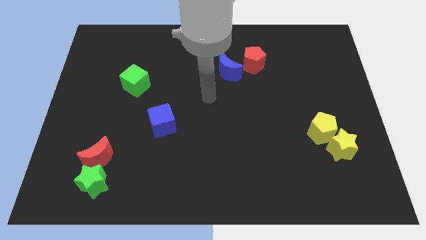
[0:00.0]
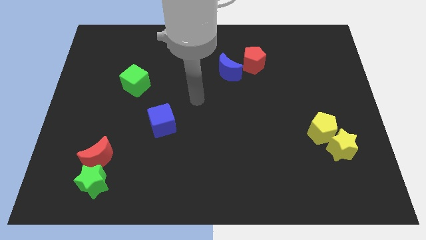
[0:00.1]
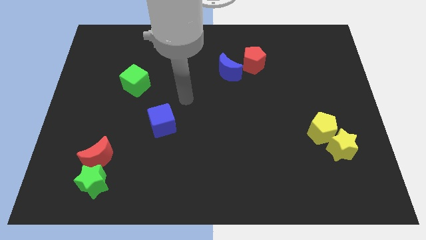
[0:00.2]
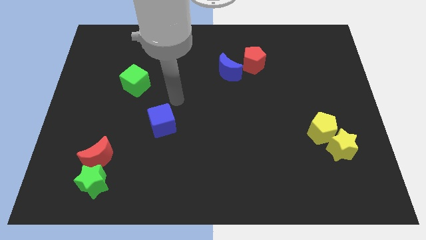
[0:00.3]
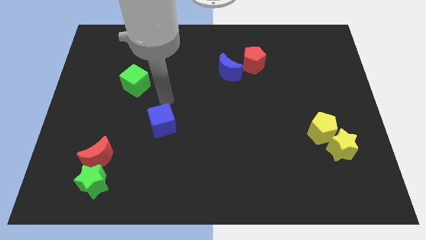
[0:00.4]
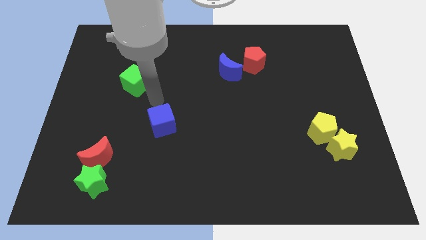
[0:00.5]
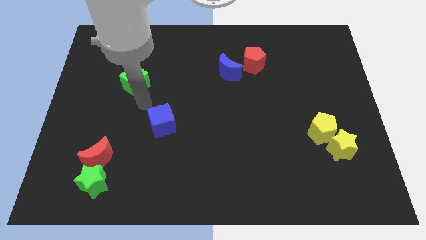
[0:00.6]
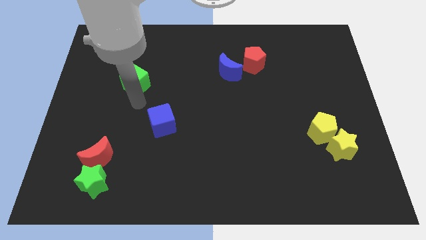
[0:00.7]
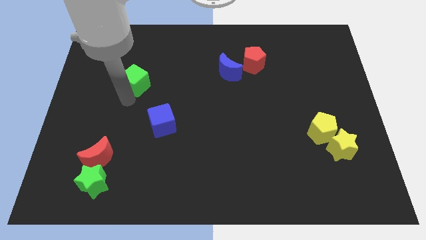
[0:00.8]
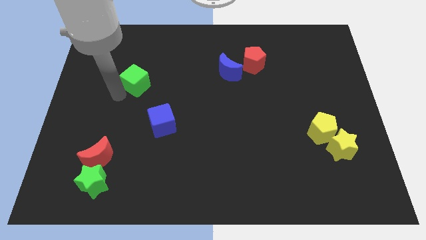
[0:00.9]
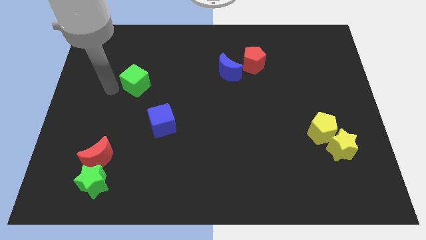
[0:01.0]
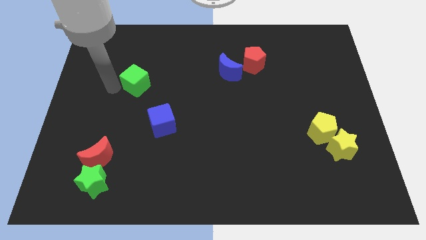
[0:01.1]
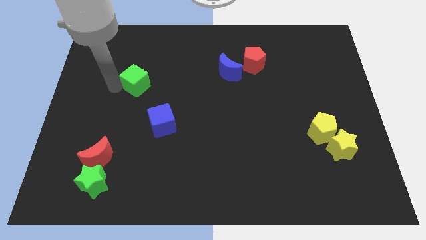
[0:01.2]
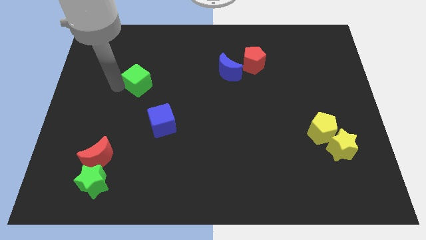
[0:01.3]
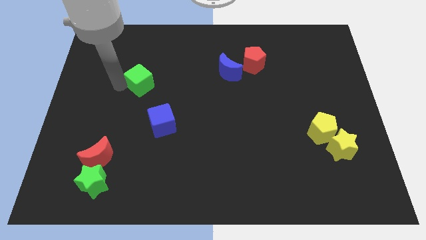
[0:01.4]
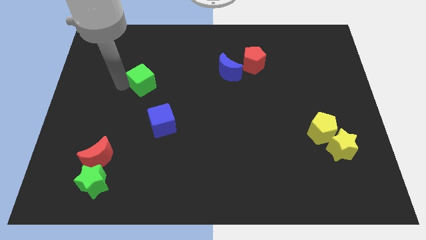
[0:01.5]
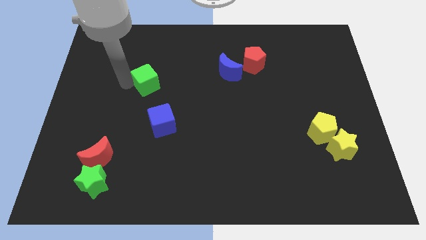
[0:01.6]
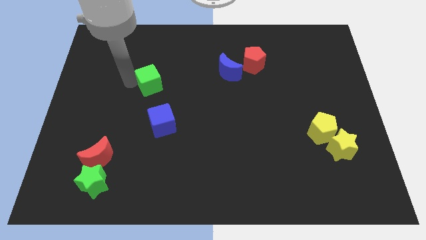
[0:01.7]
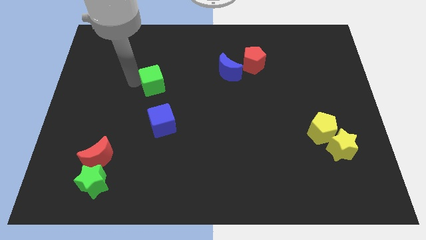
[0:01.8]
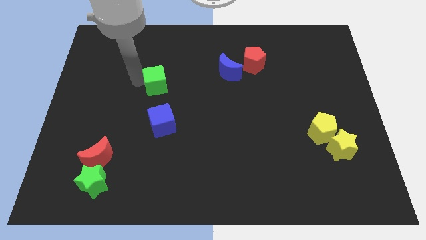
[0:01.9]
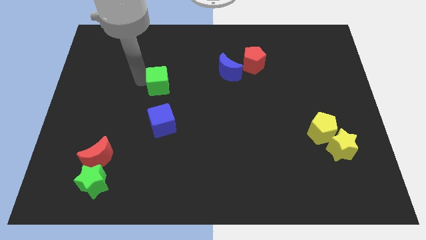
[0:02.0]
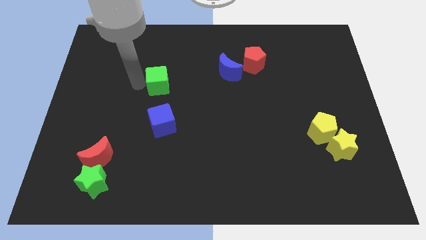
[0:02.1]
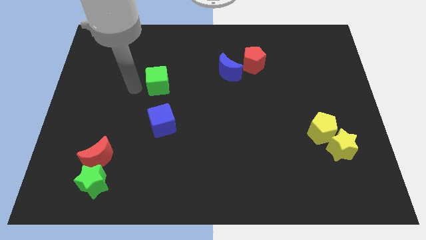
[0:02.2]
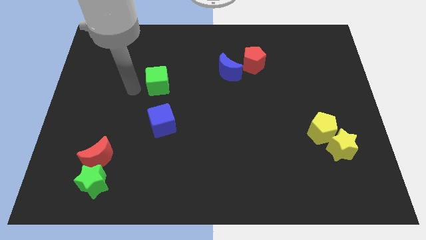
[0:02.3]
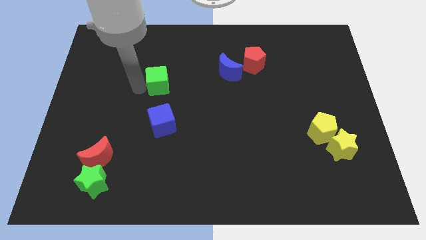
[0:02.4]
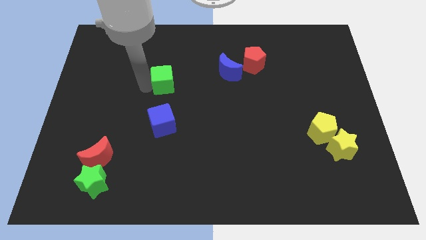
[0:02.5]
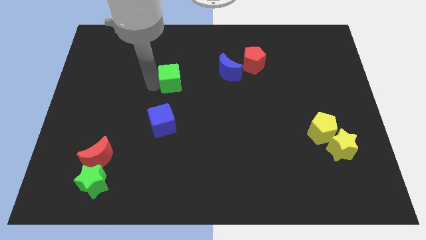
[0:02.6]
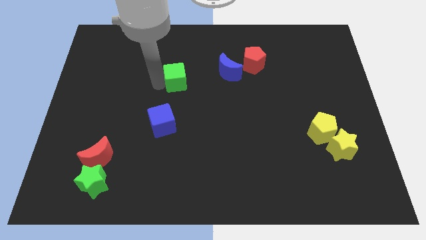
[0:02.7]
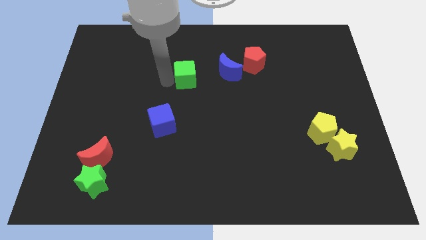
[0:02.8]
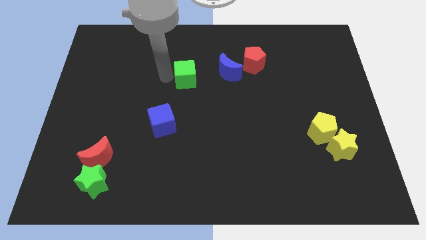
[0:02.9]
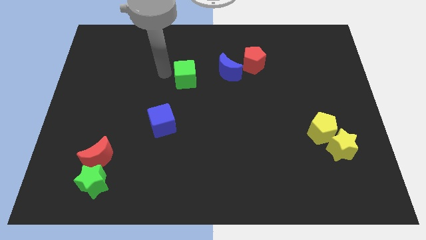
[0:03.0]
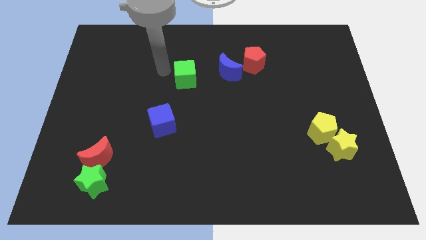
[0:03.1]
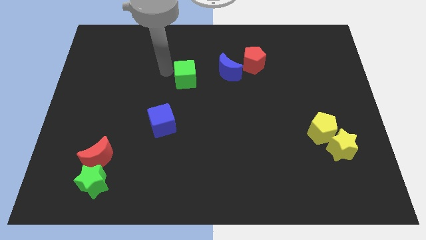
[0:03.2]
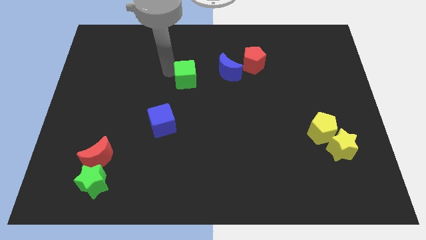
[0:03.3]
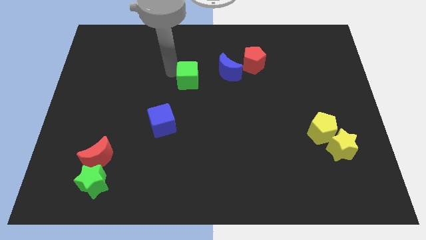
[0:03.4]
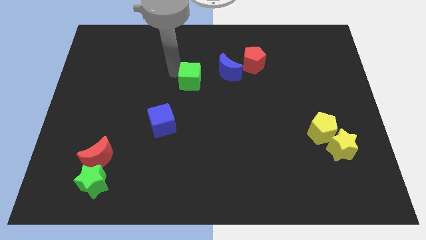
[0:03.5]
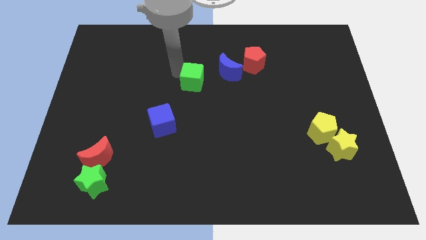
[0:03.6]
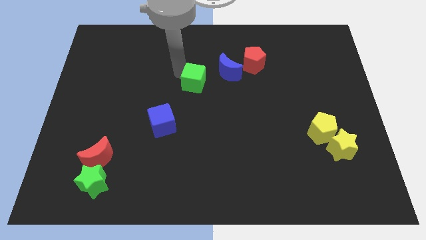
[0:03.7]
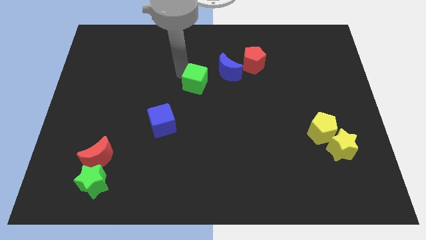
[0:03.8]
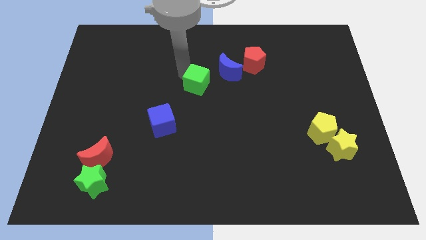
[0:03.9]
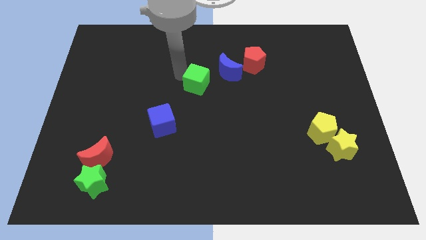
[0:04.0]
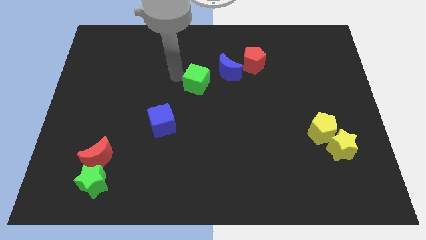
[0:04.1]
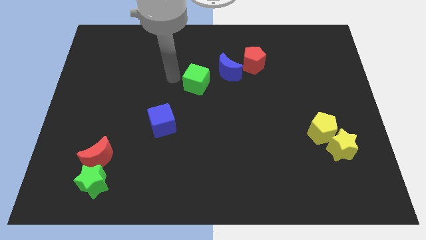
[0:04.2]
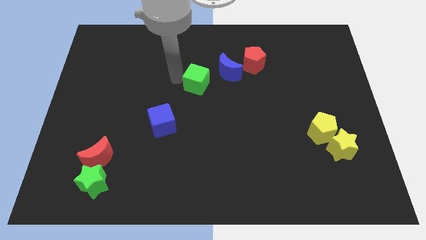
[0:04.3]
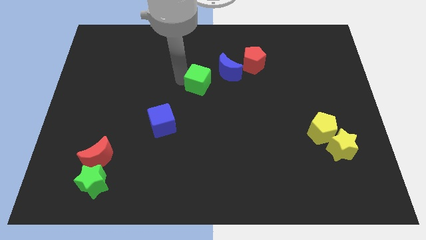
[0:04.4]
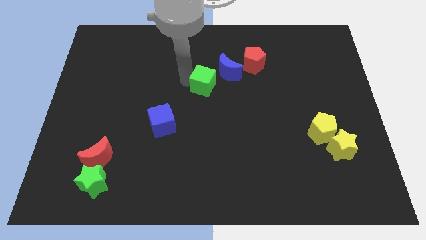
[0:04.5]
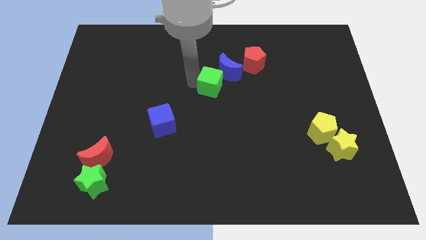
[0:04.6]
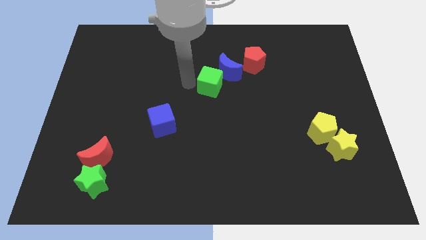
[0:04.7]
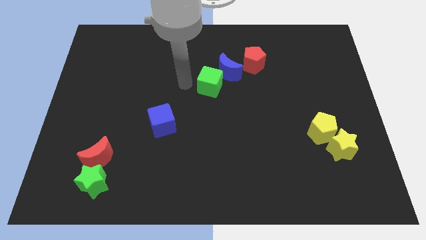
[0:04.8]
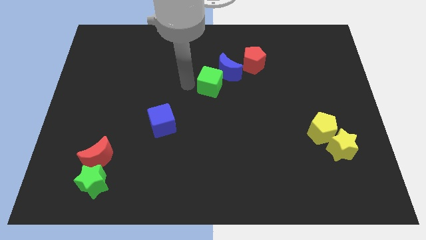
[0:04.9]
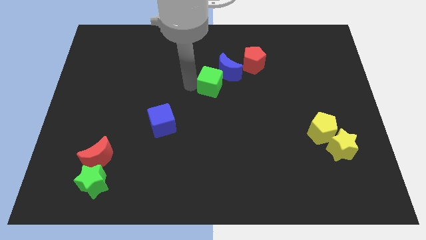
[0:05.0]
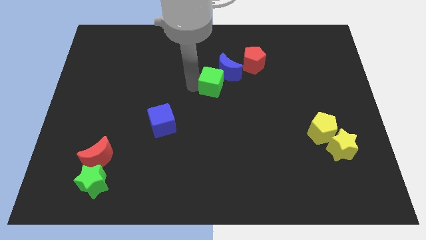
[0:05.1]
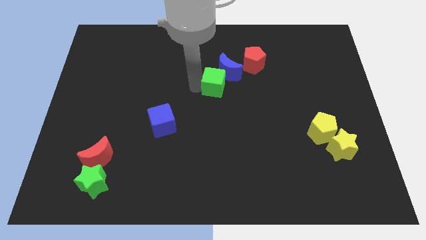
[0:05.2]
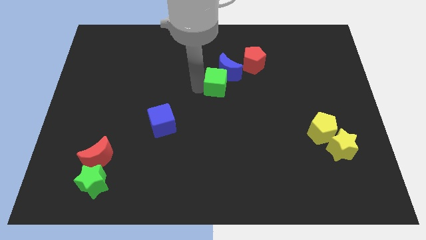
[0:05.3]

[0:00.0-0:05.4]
push the green cube to the right

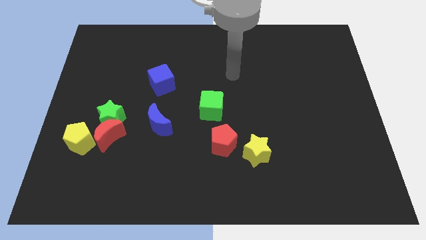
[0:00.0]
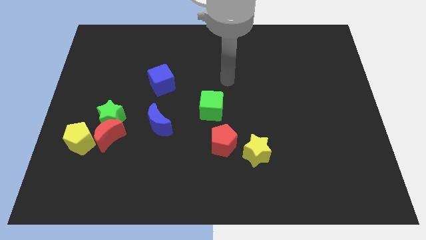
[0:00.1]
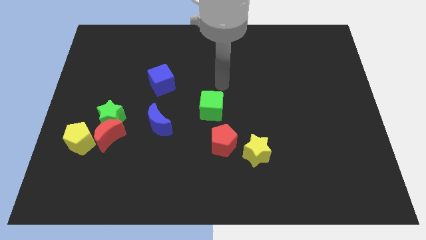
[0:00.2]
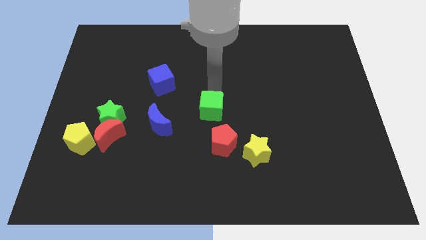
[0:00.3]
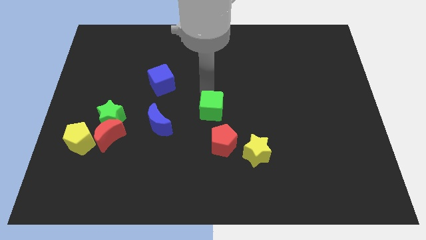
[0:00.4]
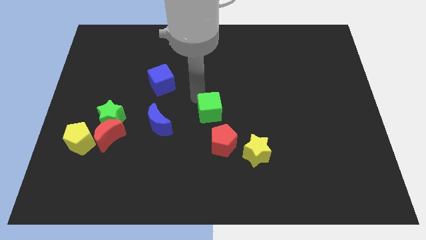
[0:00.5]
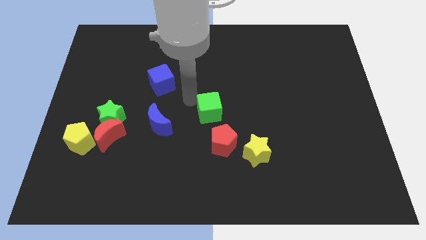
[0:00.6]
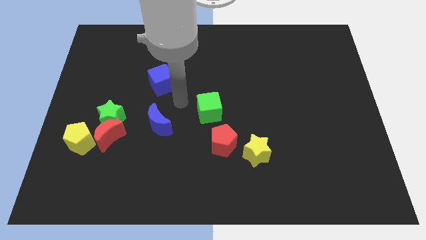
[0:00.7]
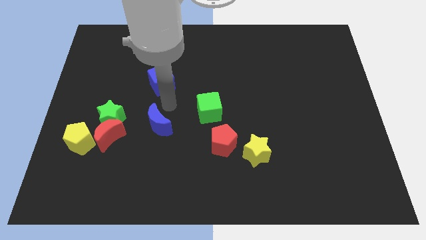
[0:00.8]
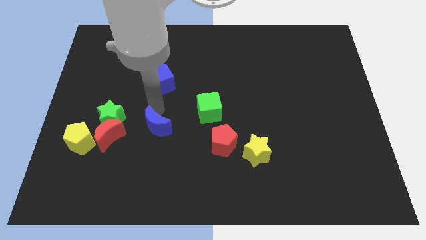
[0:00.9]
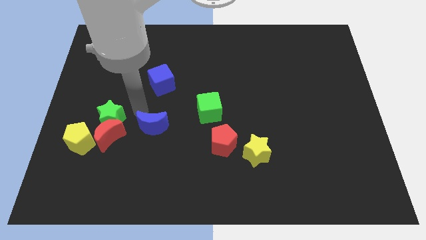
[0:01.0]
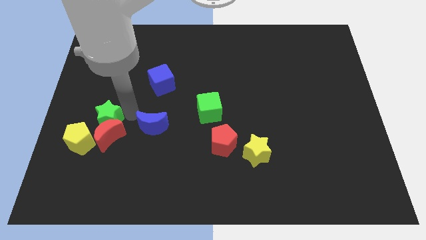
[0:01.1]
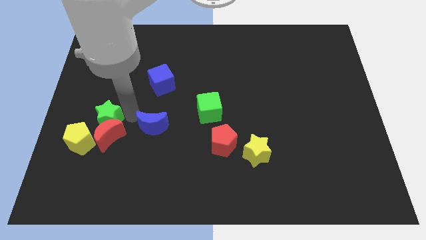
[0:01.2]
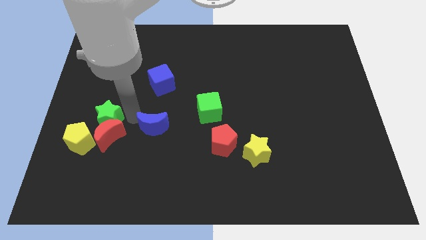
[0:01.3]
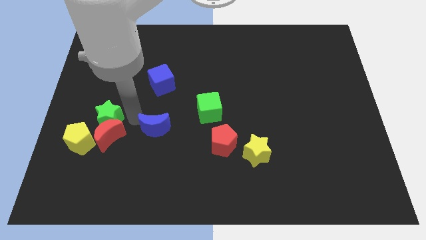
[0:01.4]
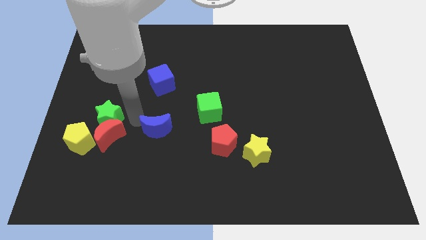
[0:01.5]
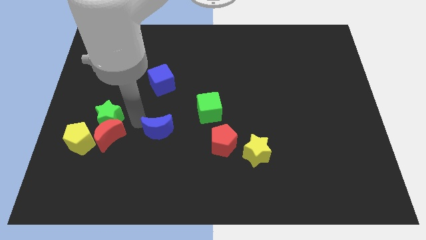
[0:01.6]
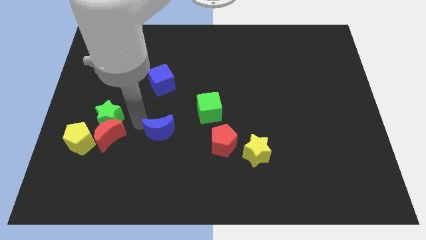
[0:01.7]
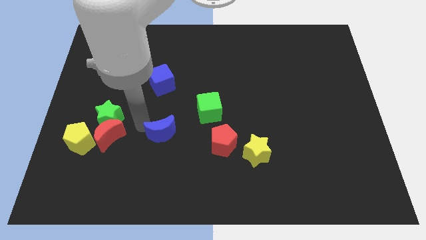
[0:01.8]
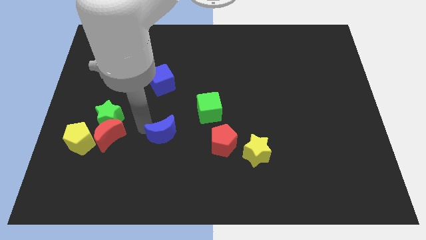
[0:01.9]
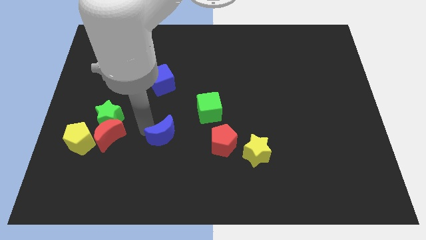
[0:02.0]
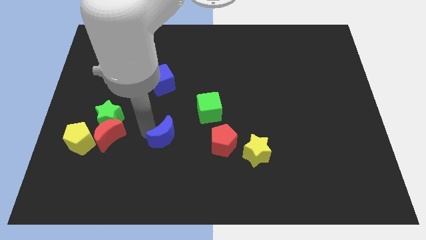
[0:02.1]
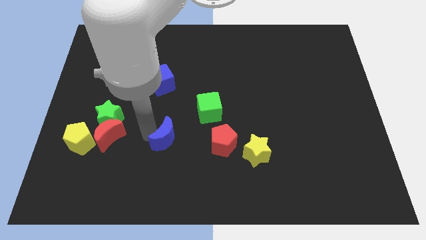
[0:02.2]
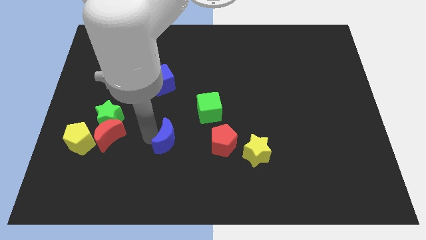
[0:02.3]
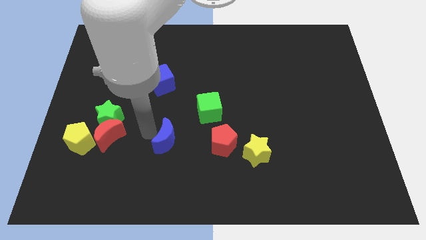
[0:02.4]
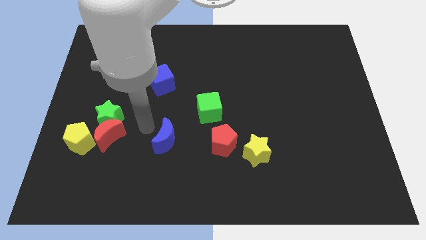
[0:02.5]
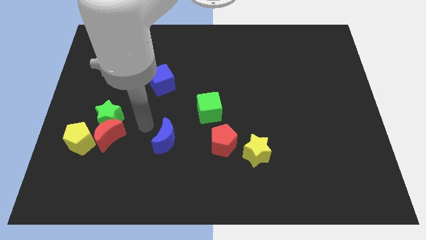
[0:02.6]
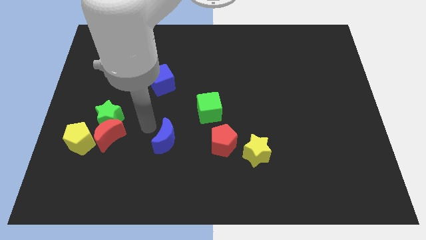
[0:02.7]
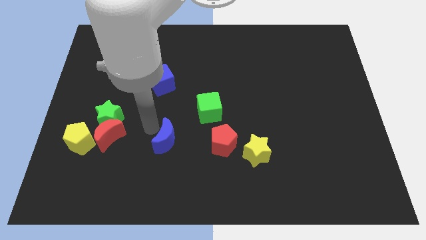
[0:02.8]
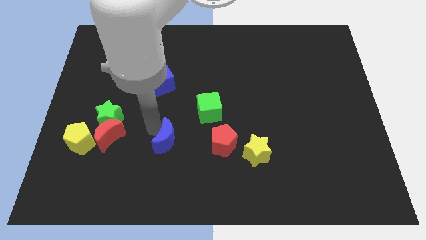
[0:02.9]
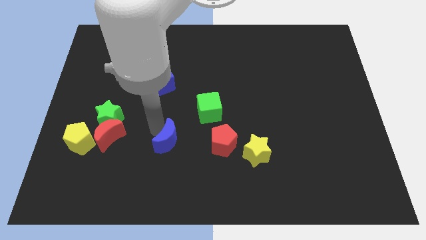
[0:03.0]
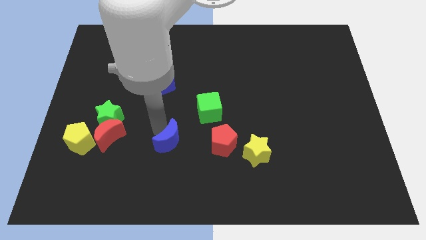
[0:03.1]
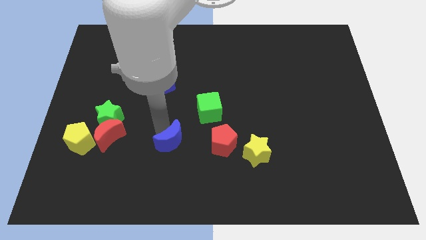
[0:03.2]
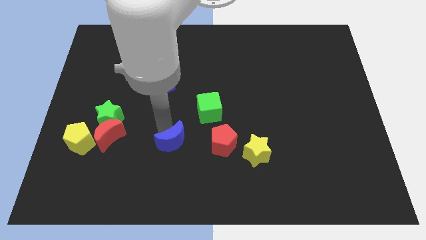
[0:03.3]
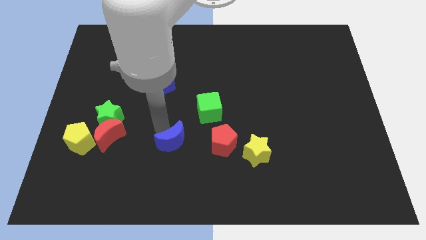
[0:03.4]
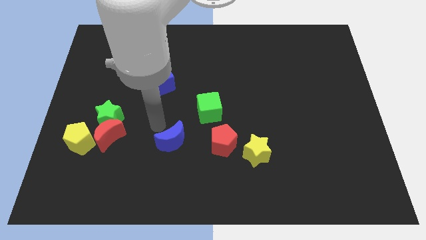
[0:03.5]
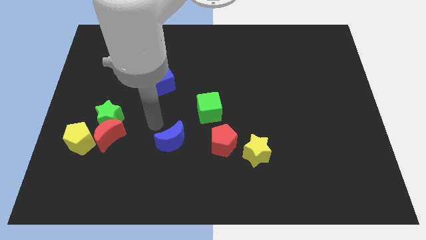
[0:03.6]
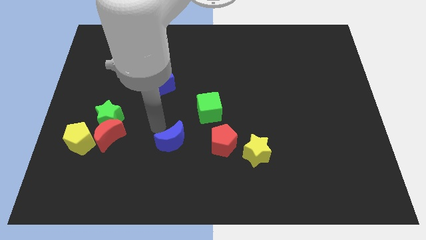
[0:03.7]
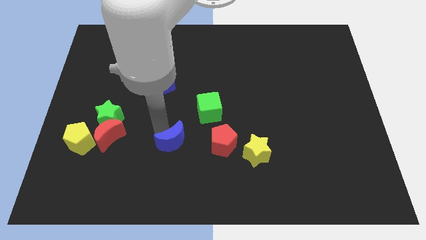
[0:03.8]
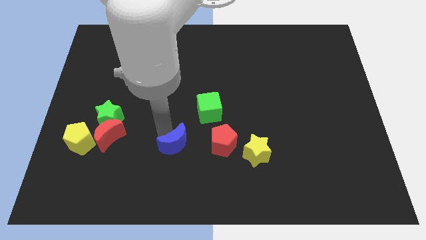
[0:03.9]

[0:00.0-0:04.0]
slide the blue moon down and right diagonally somewhat
